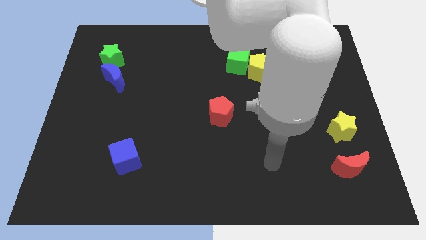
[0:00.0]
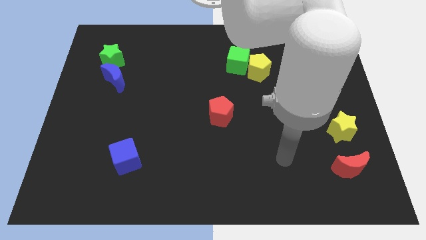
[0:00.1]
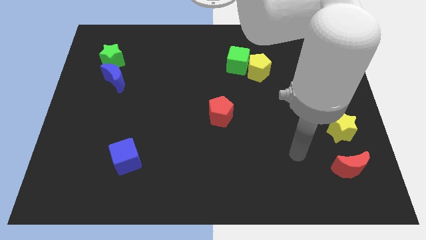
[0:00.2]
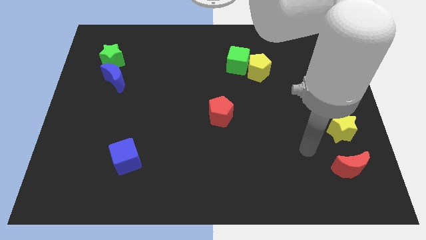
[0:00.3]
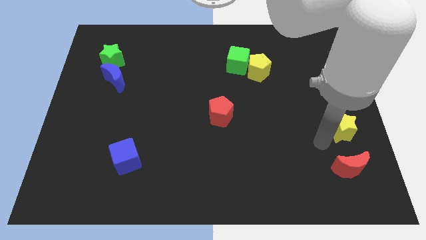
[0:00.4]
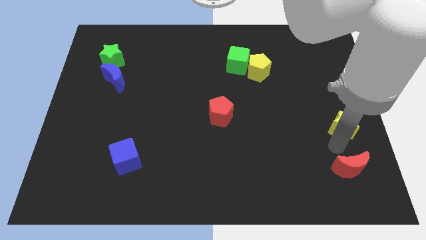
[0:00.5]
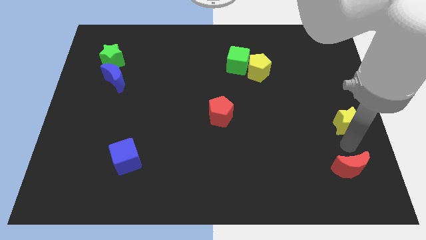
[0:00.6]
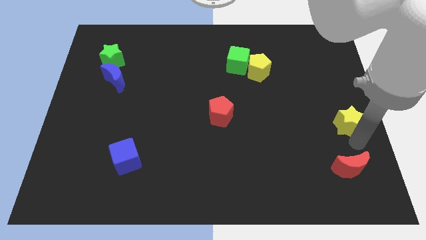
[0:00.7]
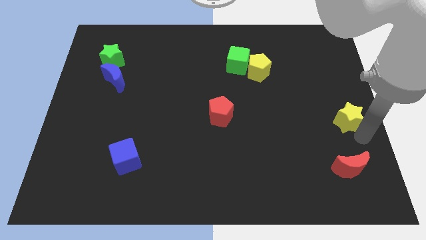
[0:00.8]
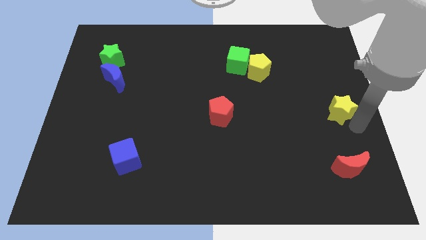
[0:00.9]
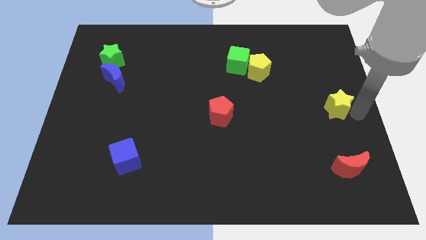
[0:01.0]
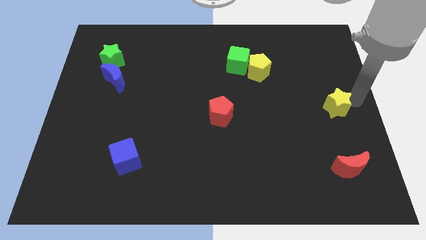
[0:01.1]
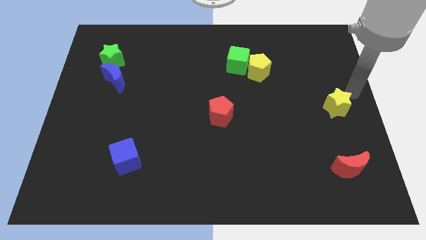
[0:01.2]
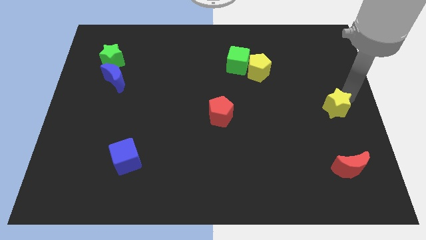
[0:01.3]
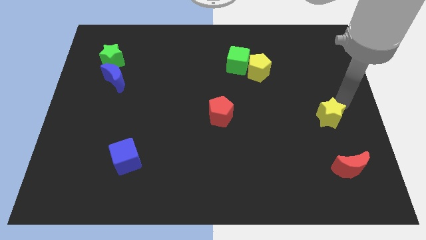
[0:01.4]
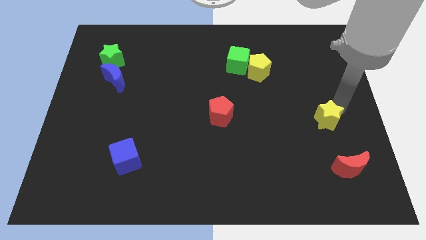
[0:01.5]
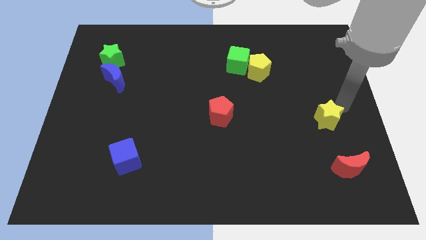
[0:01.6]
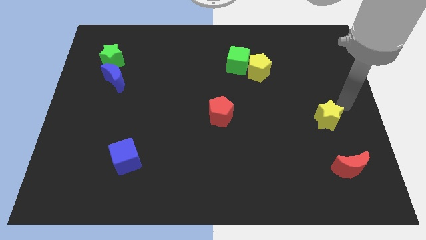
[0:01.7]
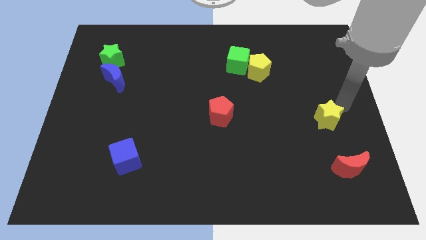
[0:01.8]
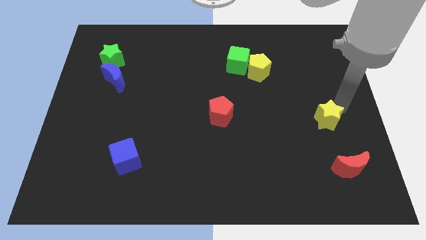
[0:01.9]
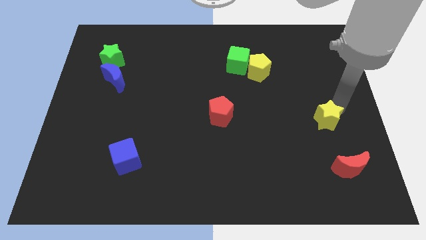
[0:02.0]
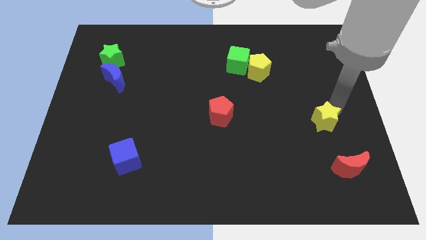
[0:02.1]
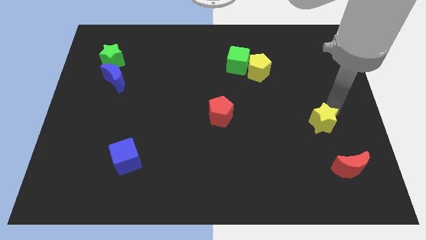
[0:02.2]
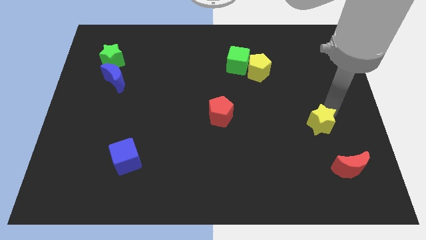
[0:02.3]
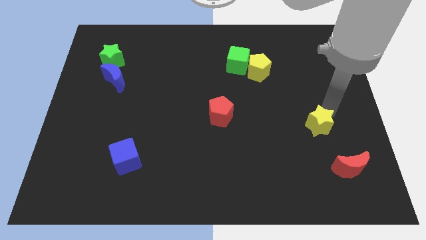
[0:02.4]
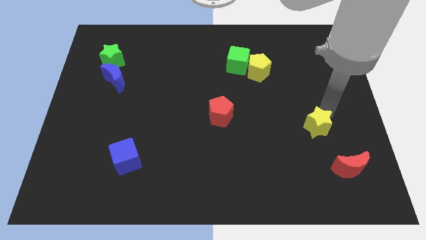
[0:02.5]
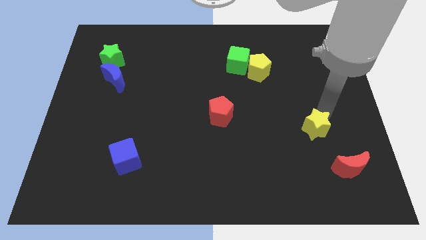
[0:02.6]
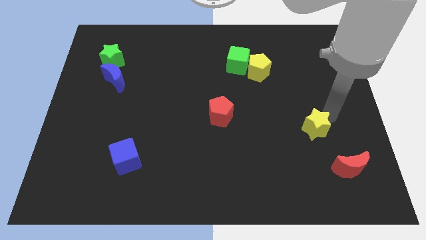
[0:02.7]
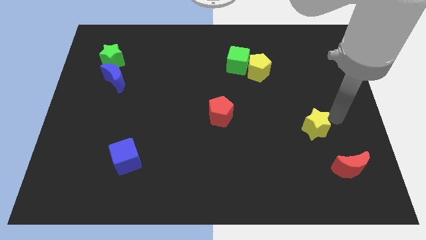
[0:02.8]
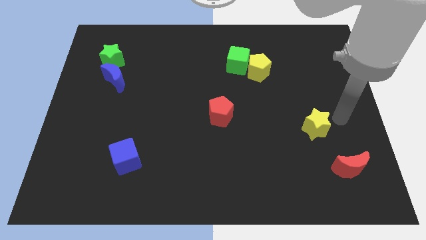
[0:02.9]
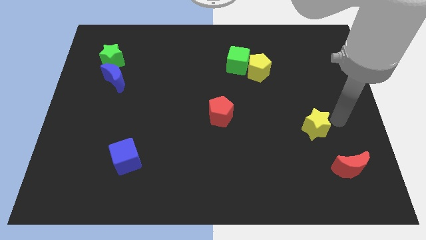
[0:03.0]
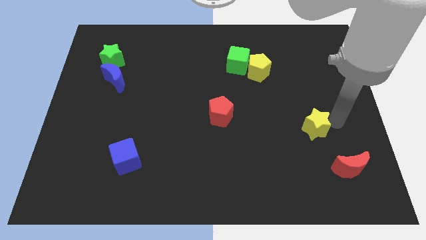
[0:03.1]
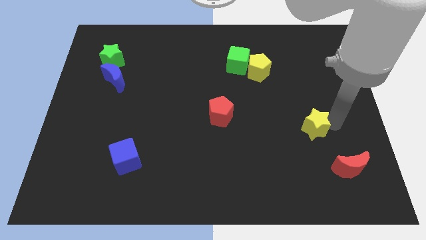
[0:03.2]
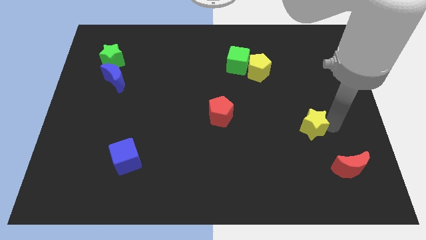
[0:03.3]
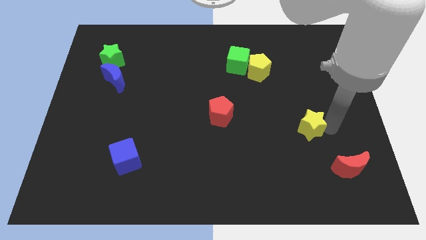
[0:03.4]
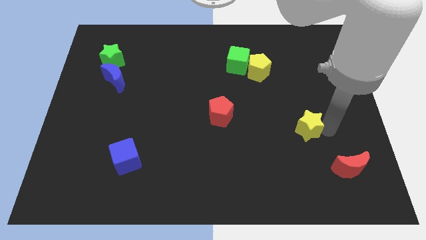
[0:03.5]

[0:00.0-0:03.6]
push the yellow star to the left slightly

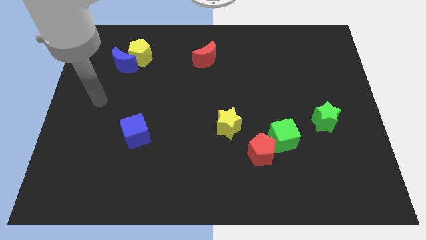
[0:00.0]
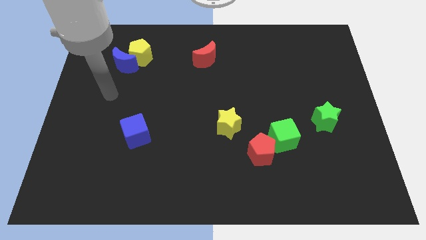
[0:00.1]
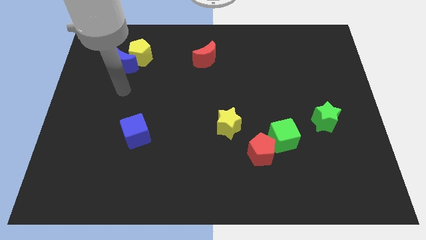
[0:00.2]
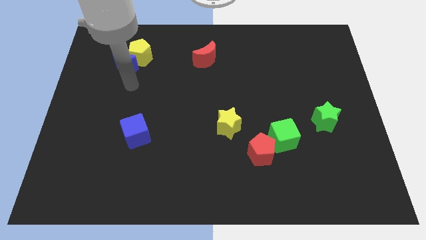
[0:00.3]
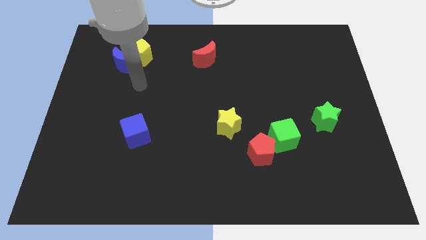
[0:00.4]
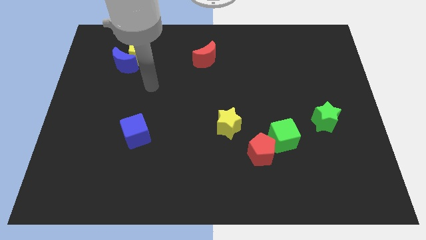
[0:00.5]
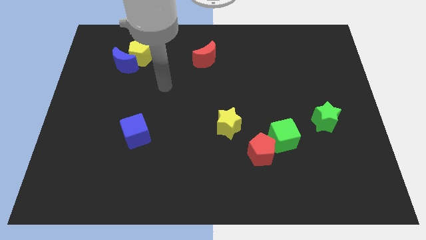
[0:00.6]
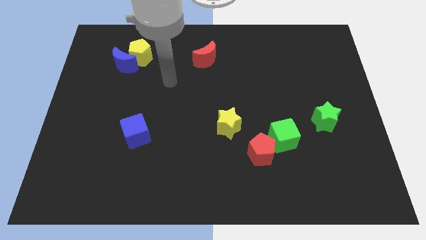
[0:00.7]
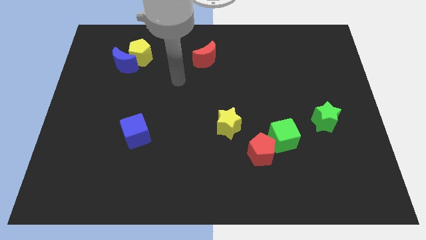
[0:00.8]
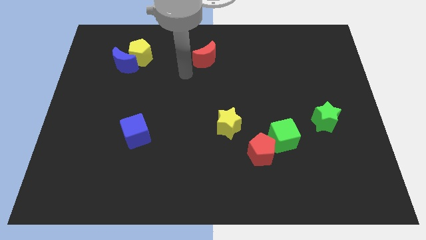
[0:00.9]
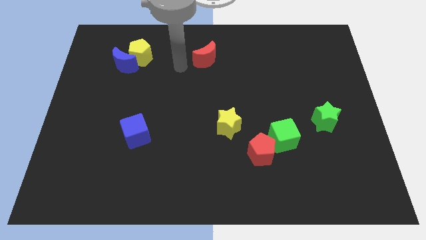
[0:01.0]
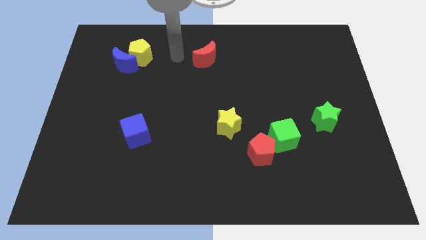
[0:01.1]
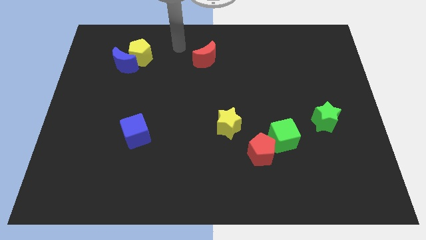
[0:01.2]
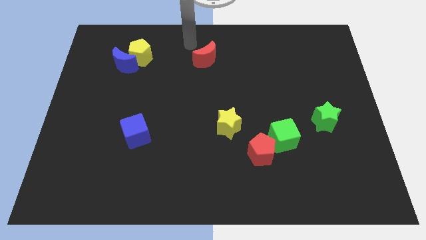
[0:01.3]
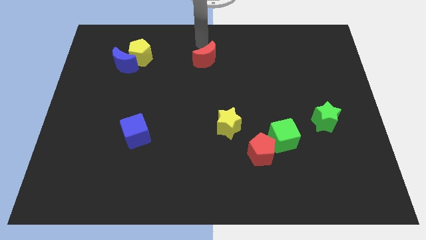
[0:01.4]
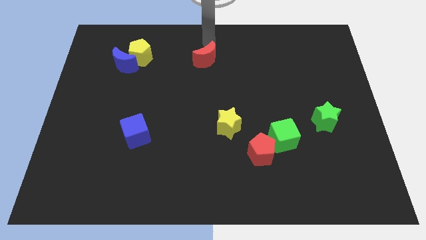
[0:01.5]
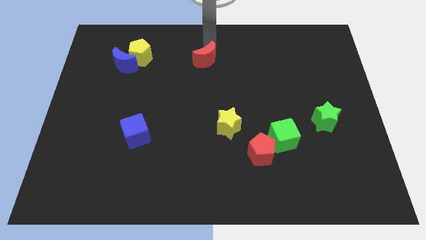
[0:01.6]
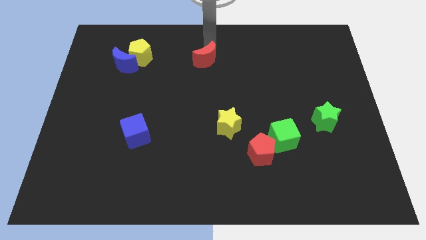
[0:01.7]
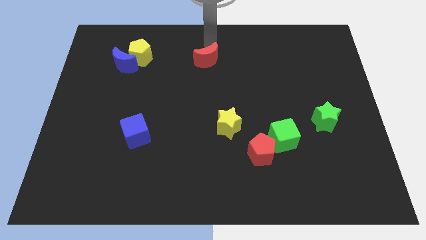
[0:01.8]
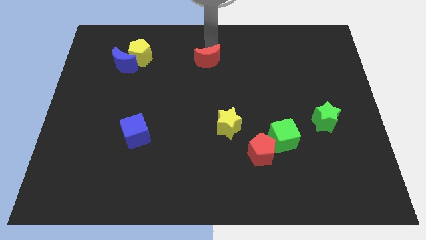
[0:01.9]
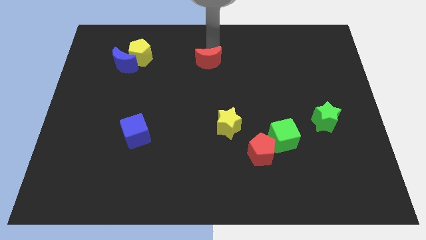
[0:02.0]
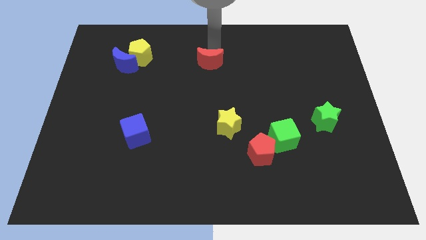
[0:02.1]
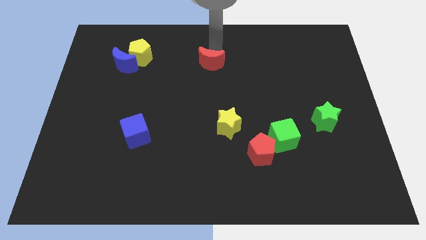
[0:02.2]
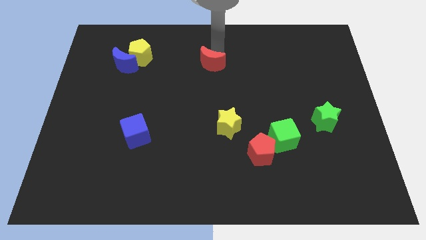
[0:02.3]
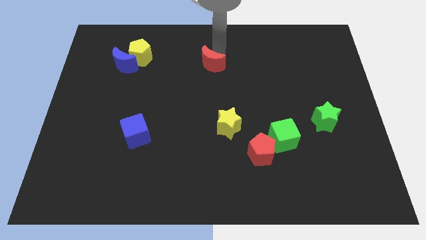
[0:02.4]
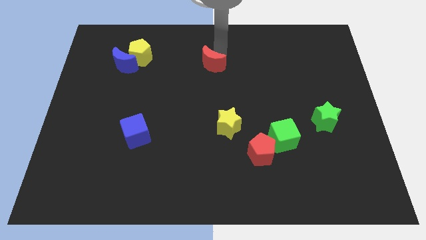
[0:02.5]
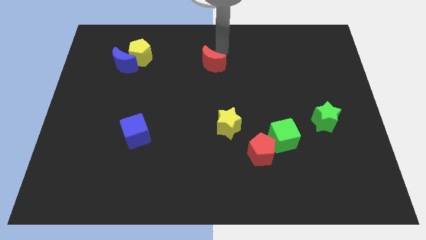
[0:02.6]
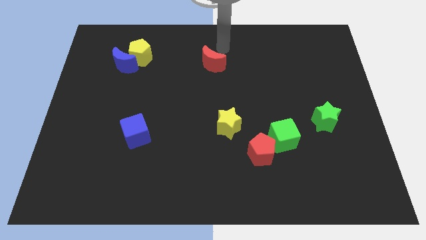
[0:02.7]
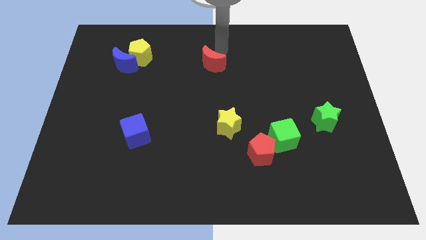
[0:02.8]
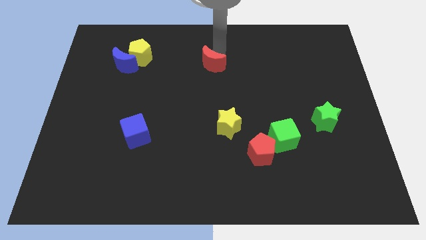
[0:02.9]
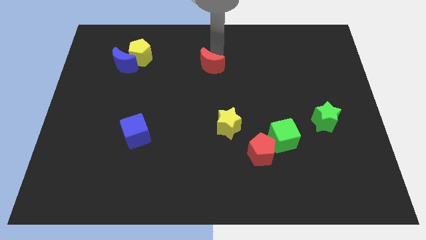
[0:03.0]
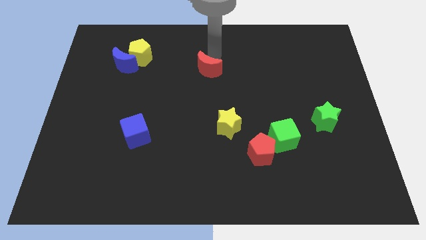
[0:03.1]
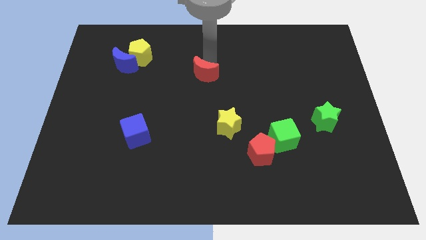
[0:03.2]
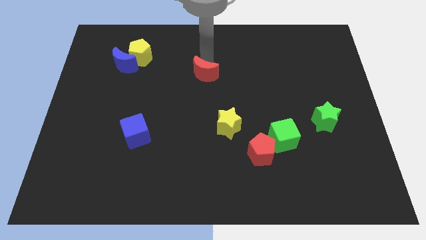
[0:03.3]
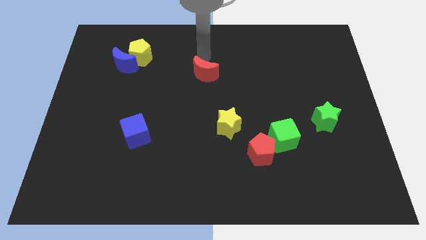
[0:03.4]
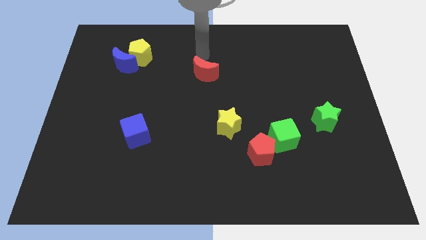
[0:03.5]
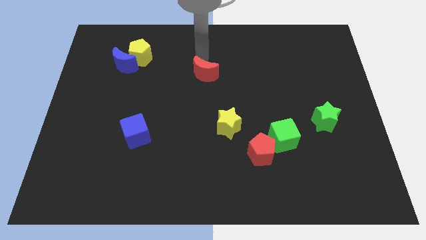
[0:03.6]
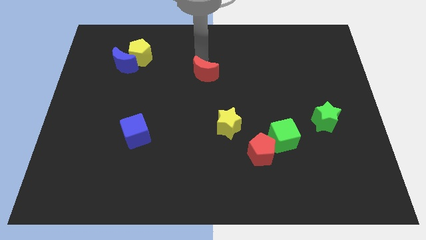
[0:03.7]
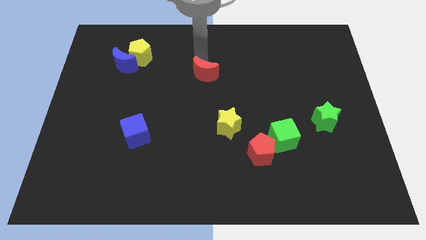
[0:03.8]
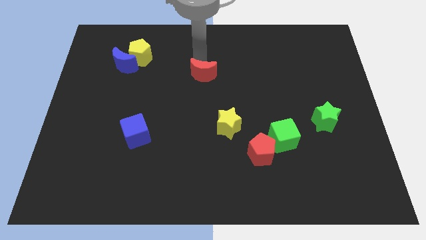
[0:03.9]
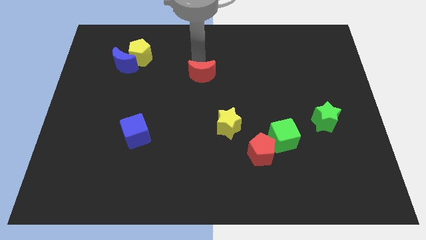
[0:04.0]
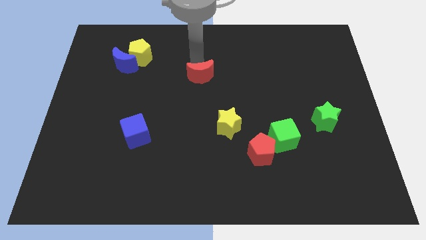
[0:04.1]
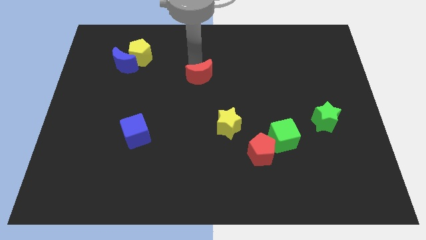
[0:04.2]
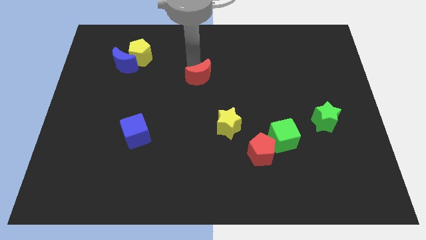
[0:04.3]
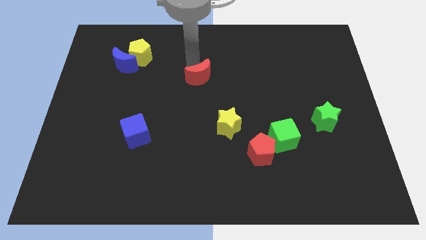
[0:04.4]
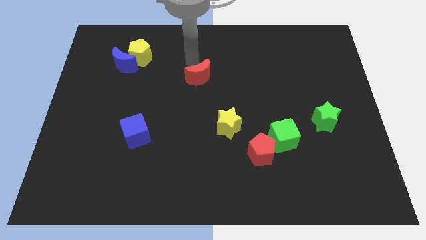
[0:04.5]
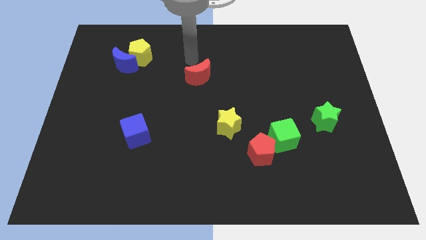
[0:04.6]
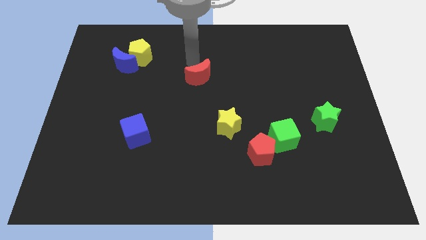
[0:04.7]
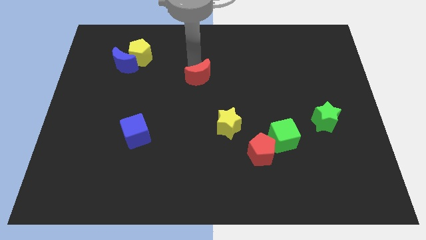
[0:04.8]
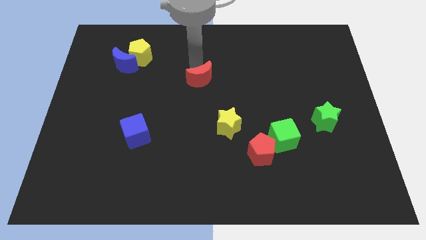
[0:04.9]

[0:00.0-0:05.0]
push the red moon a bit downwards
